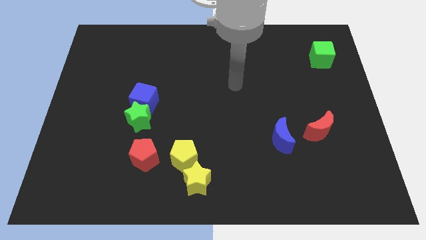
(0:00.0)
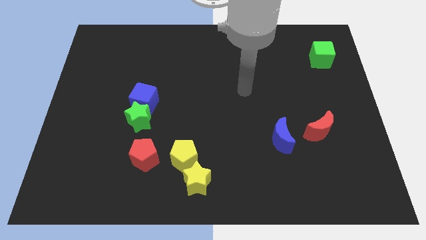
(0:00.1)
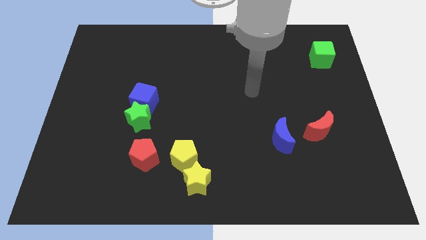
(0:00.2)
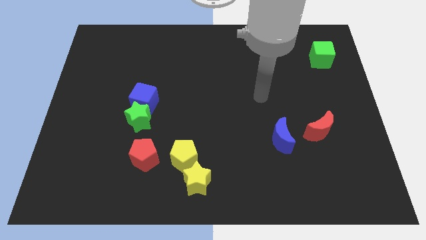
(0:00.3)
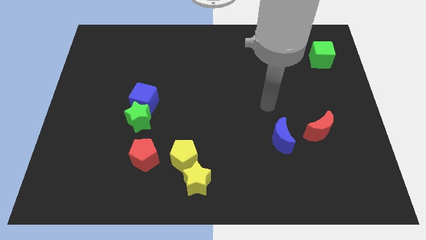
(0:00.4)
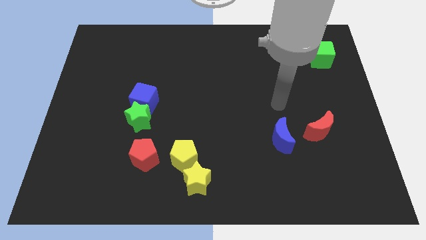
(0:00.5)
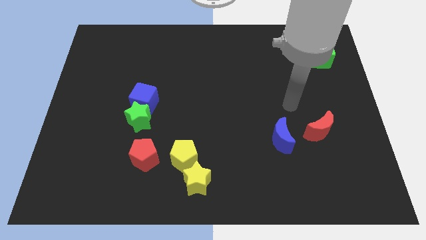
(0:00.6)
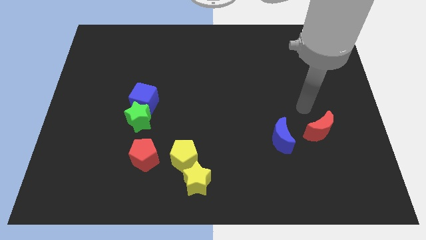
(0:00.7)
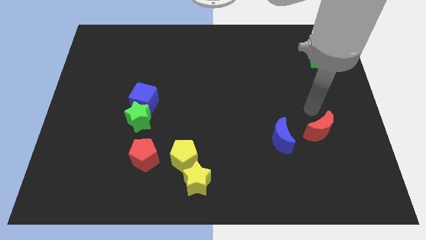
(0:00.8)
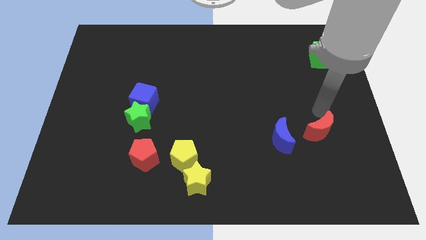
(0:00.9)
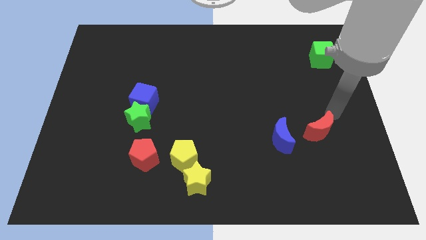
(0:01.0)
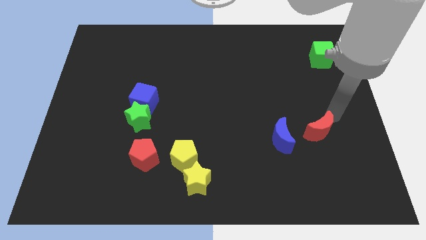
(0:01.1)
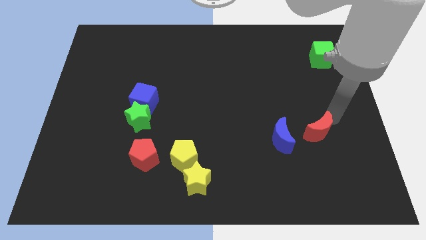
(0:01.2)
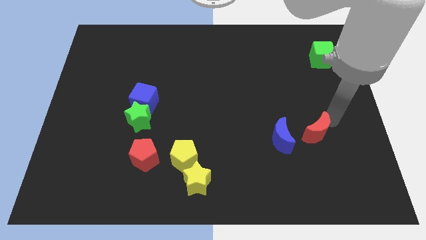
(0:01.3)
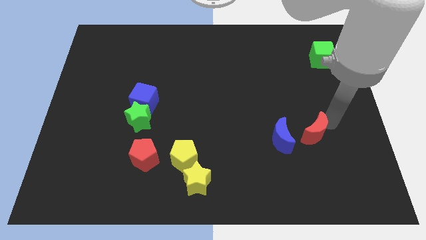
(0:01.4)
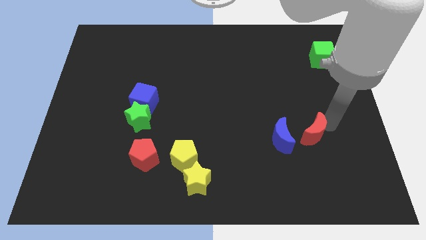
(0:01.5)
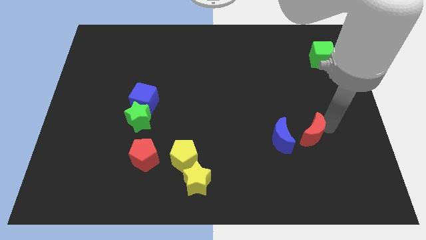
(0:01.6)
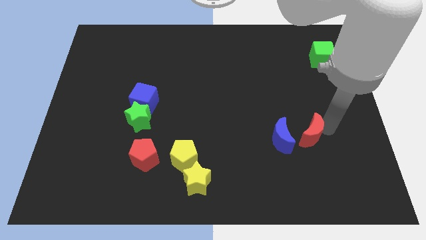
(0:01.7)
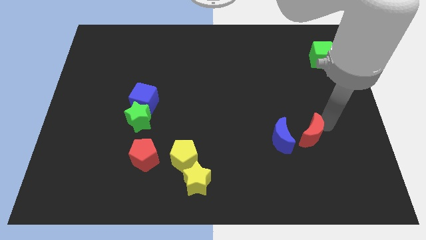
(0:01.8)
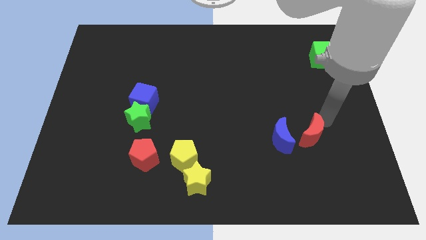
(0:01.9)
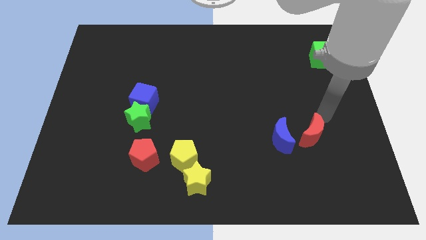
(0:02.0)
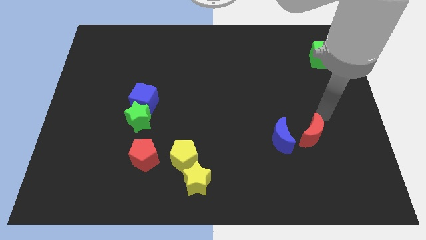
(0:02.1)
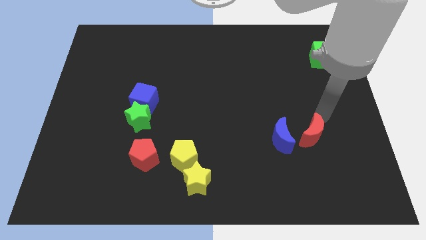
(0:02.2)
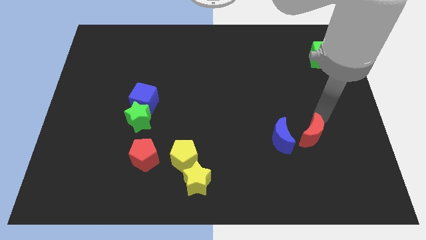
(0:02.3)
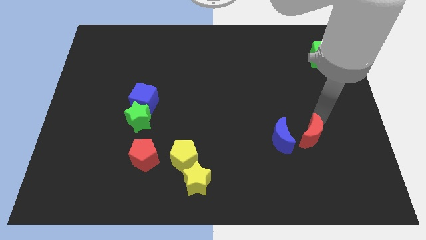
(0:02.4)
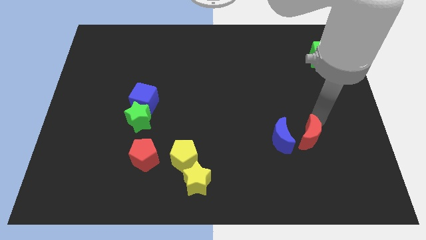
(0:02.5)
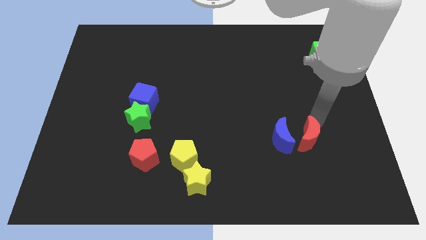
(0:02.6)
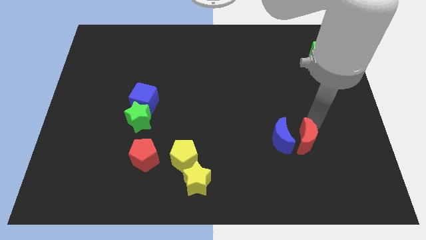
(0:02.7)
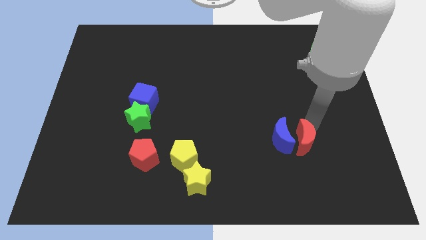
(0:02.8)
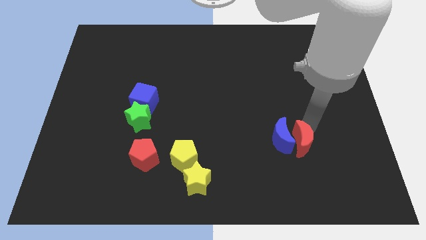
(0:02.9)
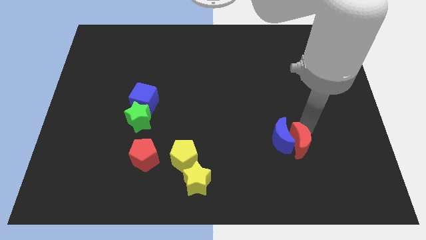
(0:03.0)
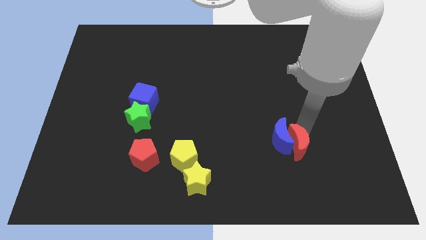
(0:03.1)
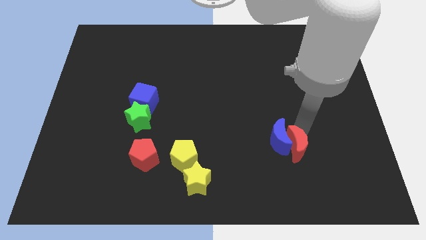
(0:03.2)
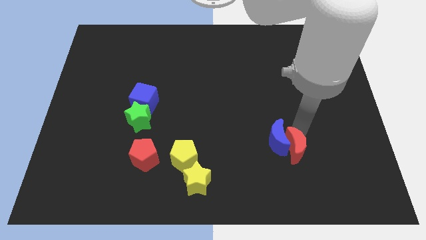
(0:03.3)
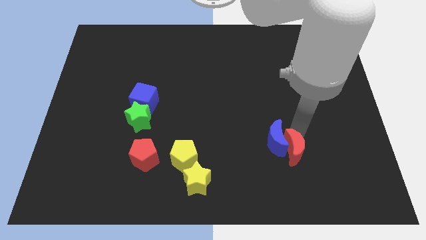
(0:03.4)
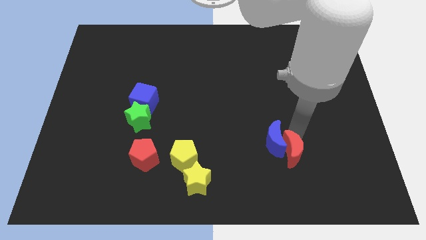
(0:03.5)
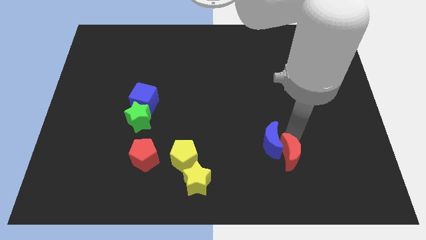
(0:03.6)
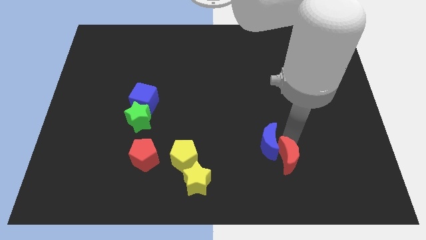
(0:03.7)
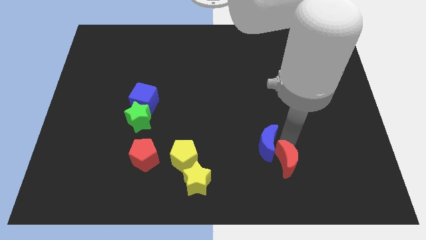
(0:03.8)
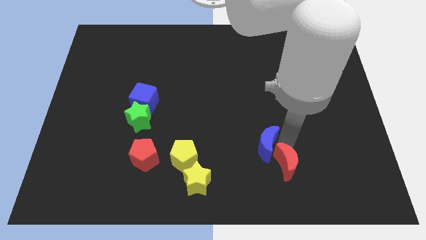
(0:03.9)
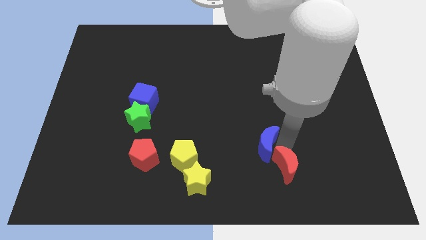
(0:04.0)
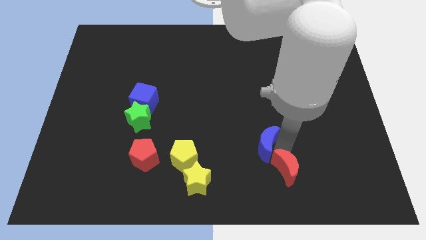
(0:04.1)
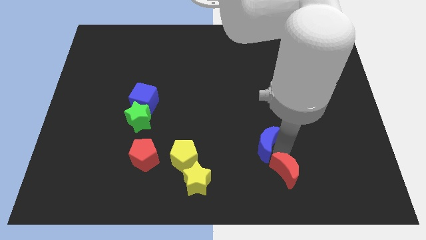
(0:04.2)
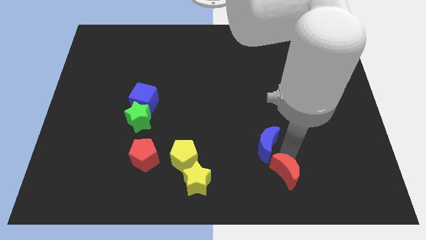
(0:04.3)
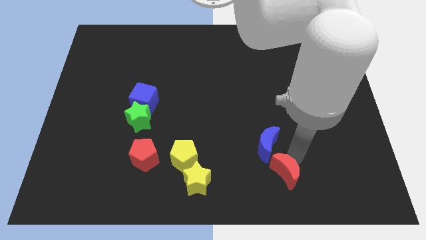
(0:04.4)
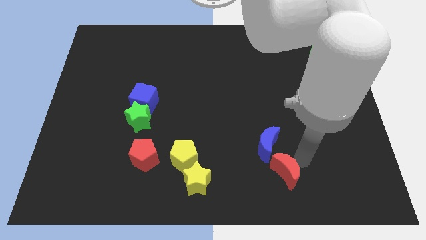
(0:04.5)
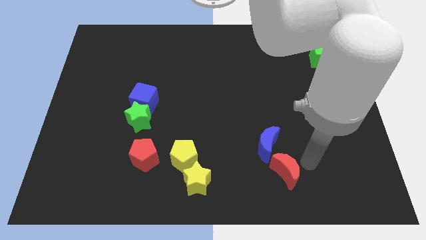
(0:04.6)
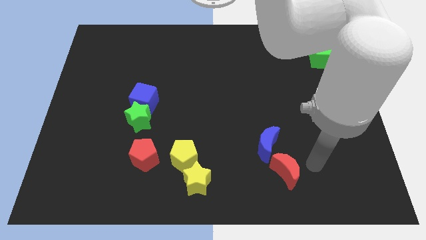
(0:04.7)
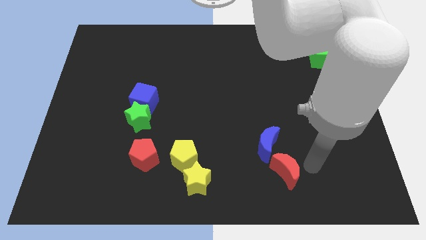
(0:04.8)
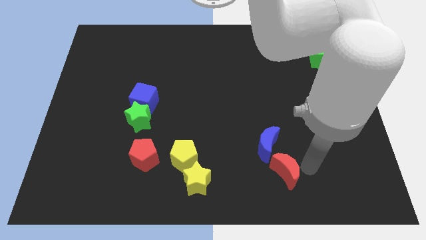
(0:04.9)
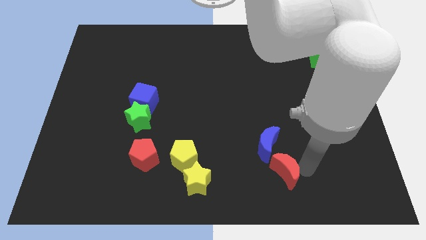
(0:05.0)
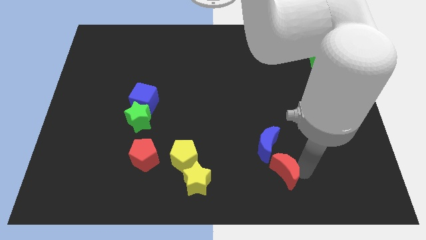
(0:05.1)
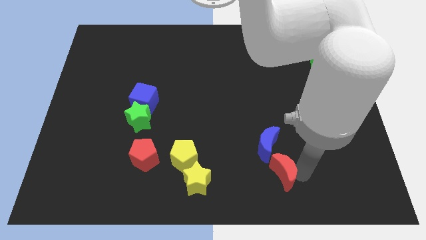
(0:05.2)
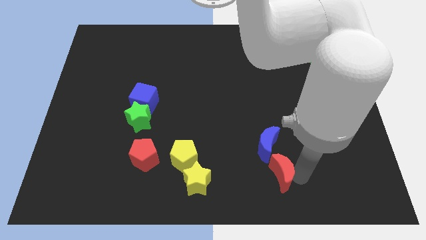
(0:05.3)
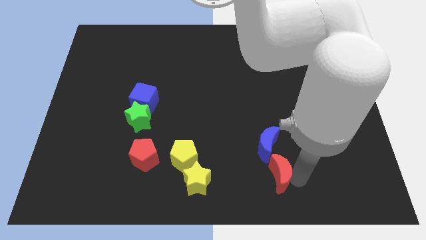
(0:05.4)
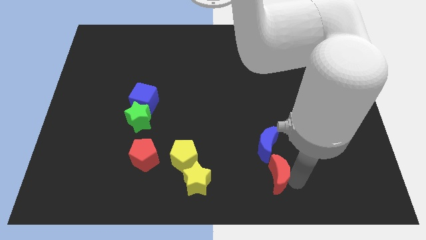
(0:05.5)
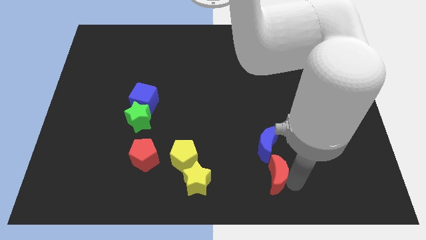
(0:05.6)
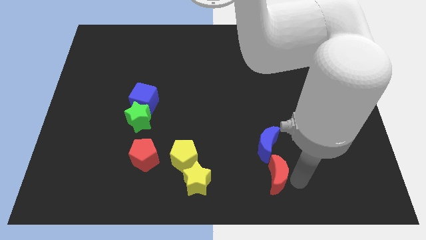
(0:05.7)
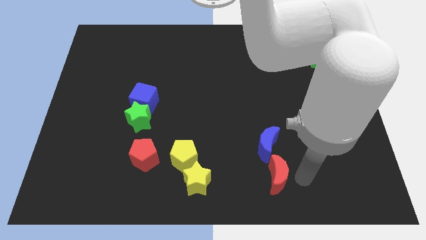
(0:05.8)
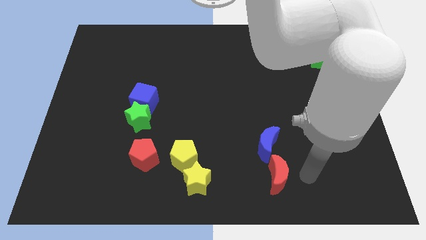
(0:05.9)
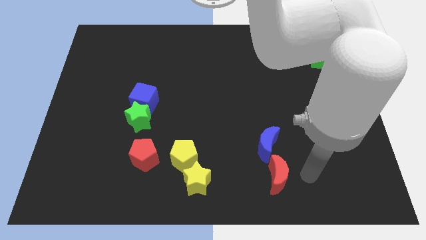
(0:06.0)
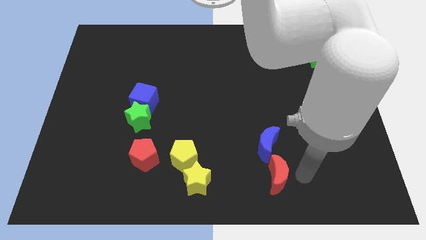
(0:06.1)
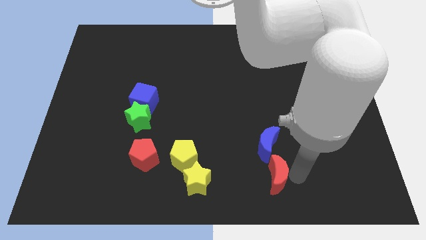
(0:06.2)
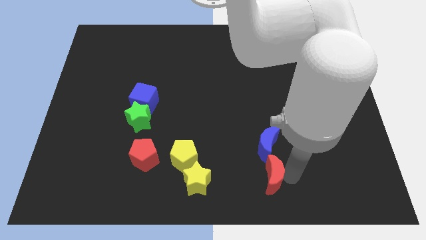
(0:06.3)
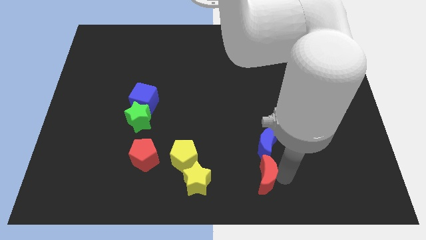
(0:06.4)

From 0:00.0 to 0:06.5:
push the red moon to the bottom side
